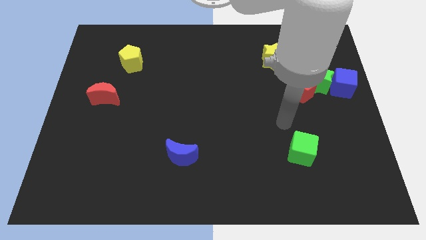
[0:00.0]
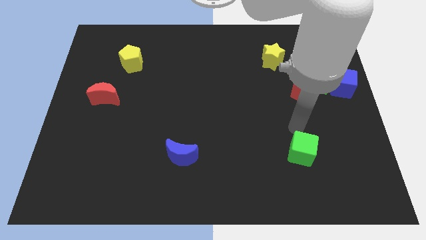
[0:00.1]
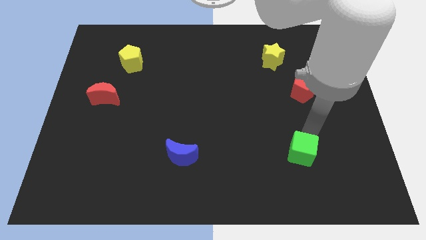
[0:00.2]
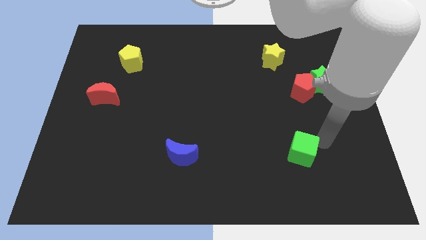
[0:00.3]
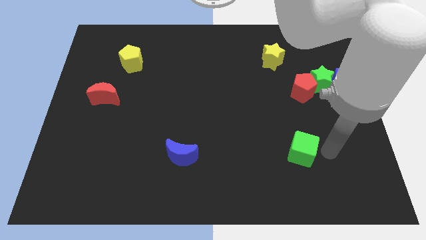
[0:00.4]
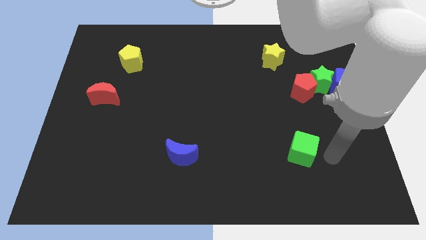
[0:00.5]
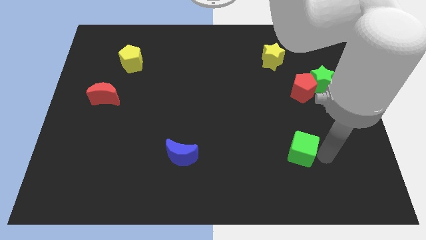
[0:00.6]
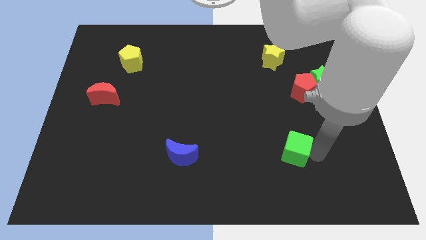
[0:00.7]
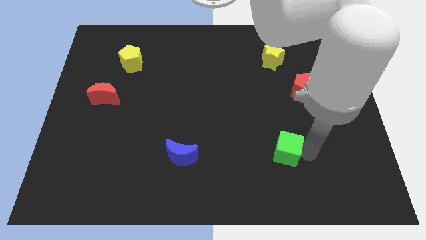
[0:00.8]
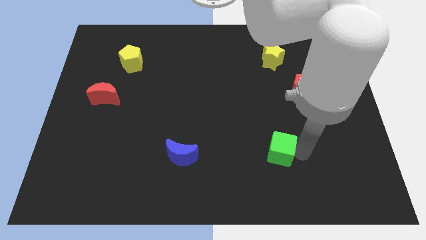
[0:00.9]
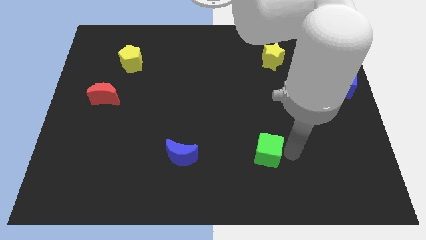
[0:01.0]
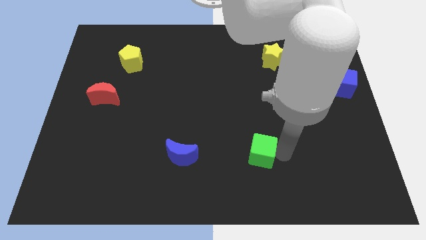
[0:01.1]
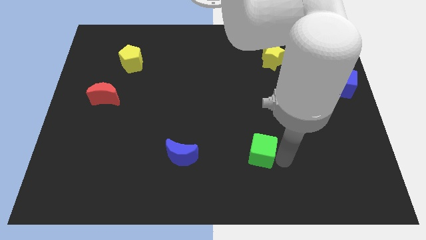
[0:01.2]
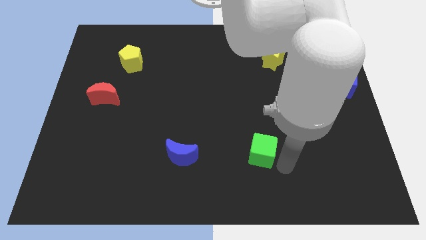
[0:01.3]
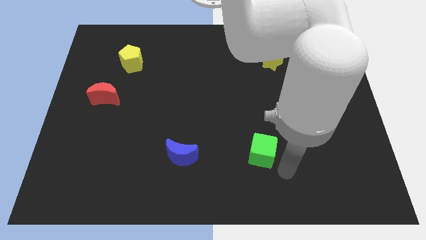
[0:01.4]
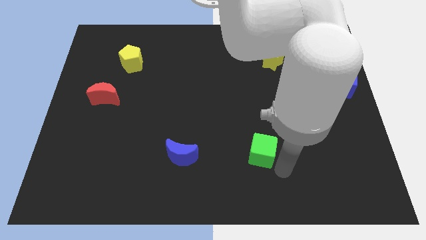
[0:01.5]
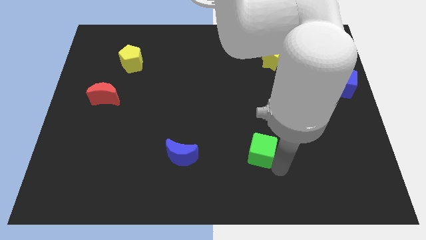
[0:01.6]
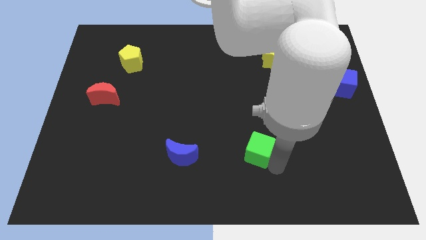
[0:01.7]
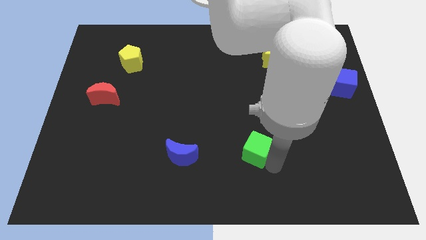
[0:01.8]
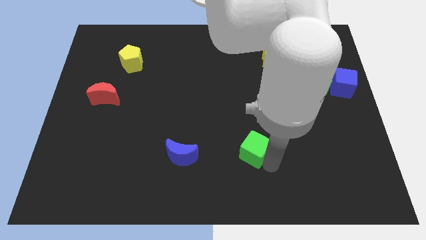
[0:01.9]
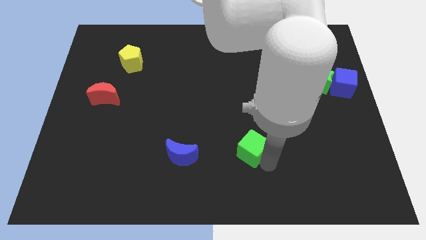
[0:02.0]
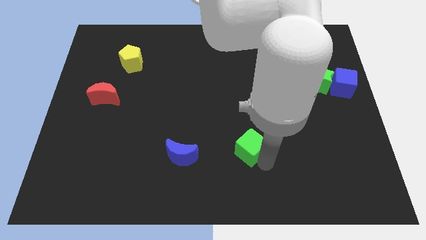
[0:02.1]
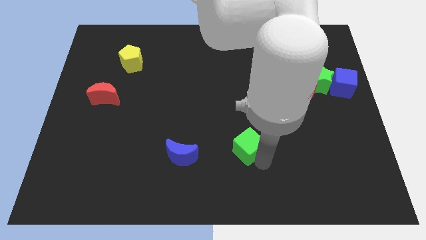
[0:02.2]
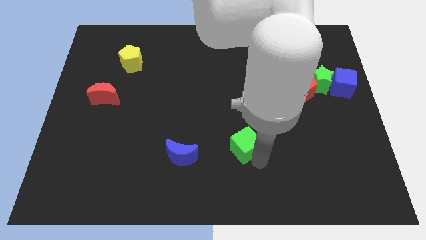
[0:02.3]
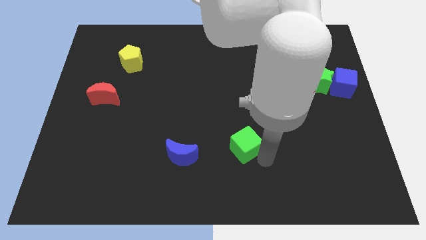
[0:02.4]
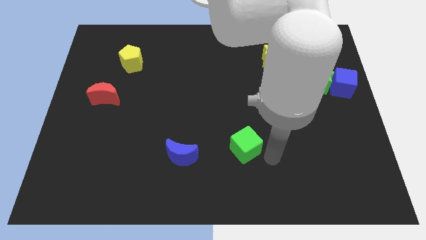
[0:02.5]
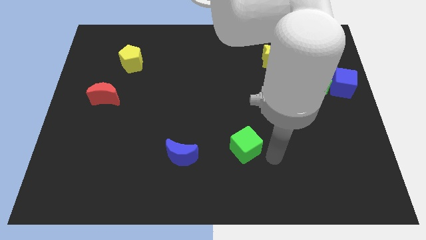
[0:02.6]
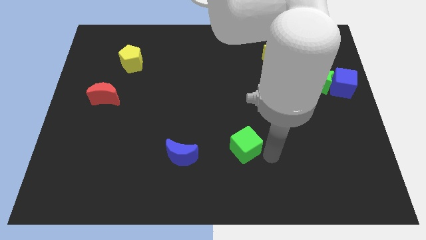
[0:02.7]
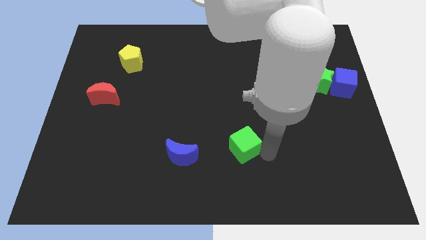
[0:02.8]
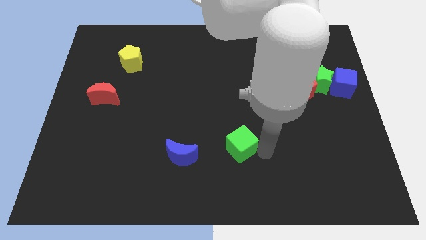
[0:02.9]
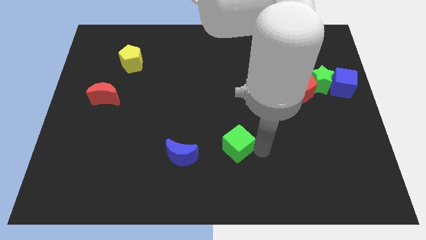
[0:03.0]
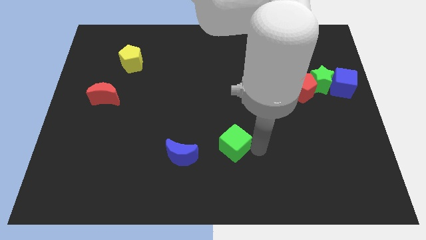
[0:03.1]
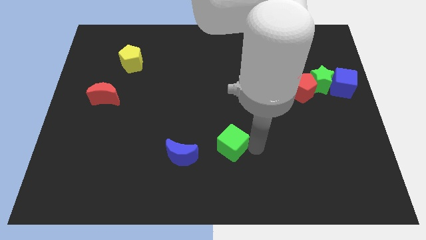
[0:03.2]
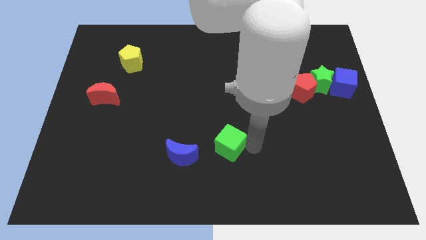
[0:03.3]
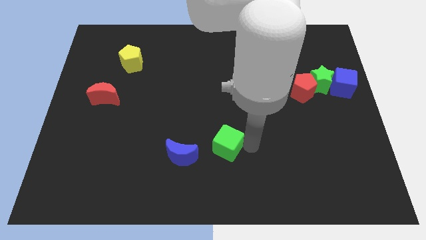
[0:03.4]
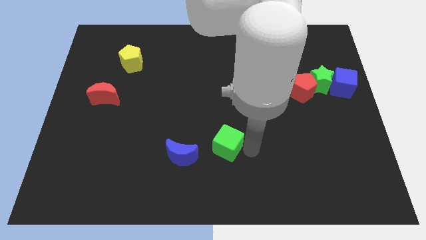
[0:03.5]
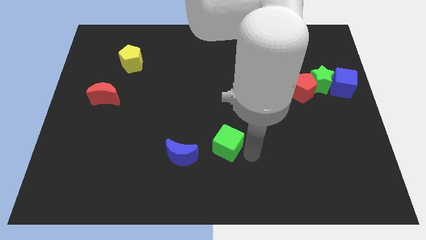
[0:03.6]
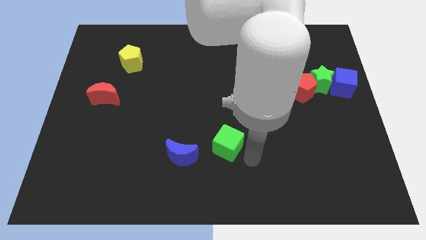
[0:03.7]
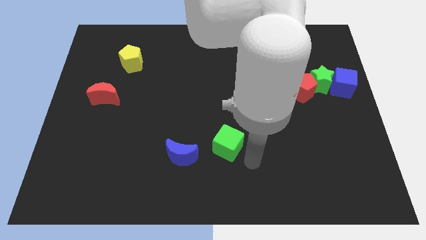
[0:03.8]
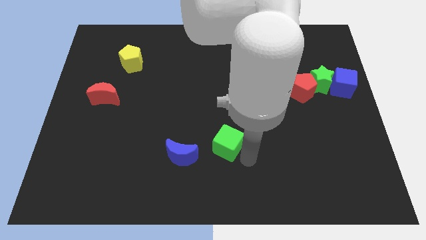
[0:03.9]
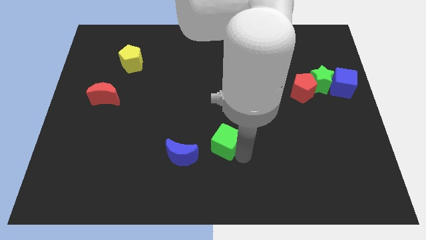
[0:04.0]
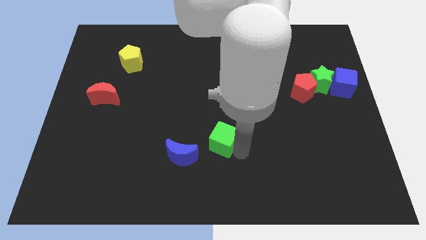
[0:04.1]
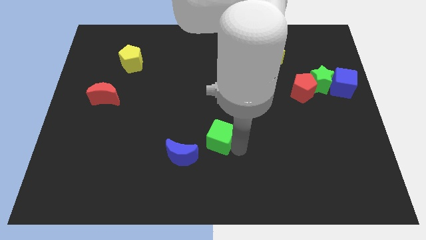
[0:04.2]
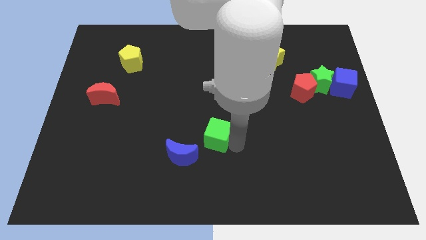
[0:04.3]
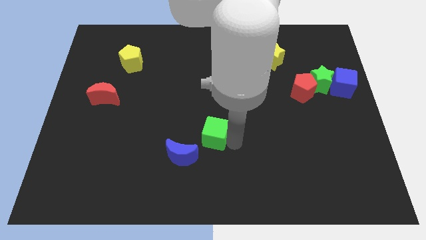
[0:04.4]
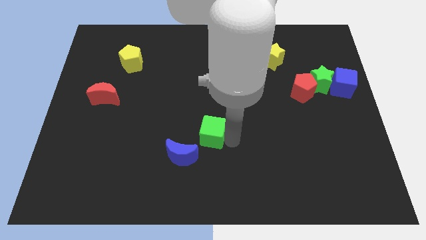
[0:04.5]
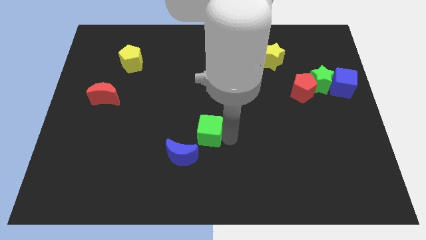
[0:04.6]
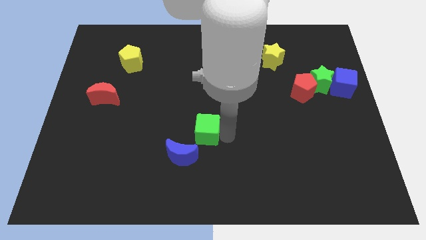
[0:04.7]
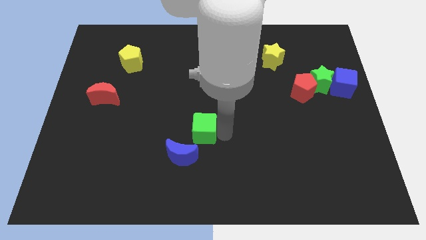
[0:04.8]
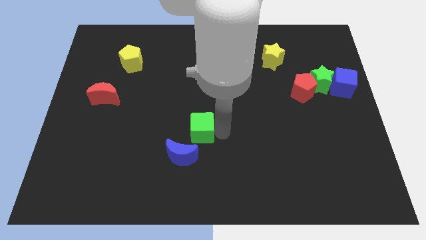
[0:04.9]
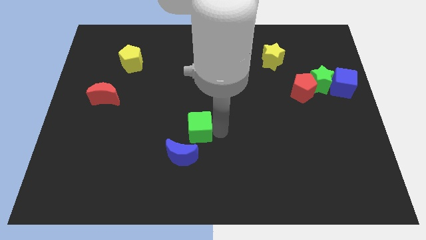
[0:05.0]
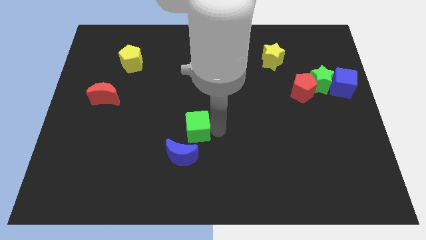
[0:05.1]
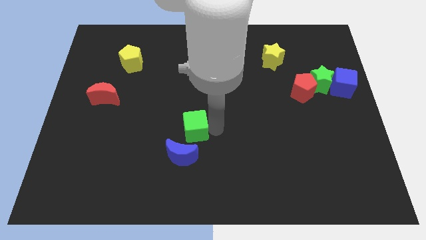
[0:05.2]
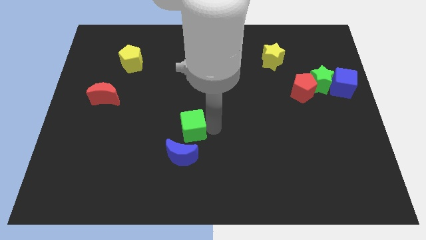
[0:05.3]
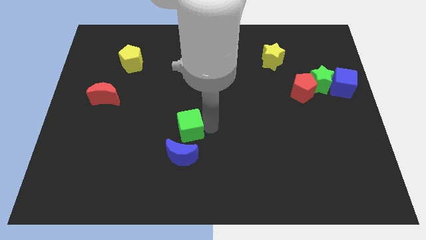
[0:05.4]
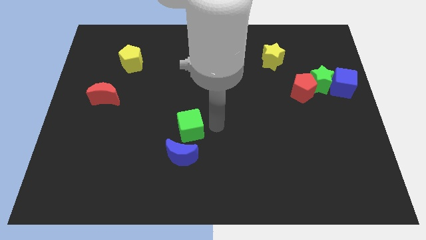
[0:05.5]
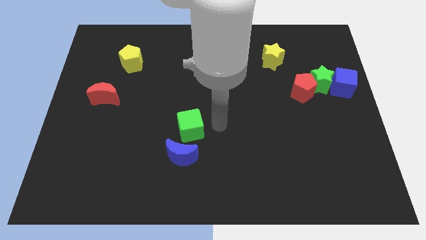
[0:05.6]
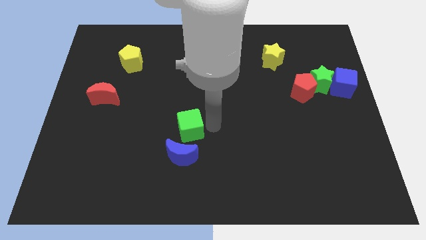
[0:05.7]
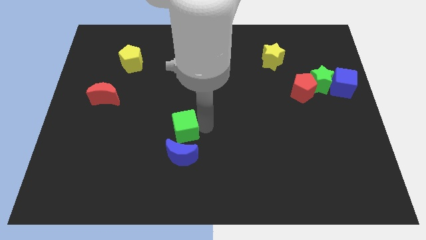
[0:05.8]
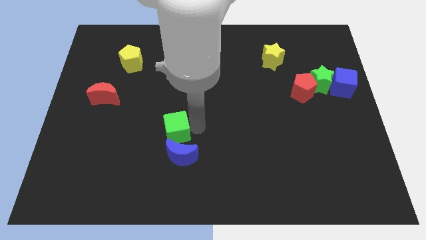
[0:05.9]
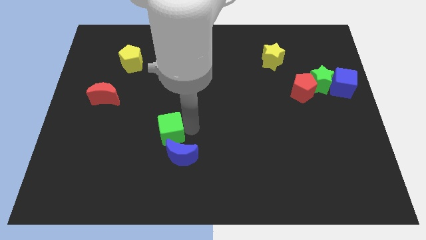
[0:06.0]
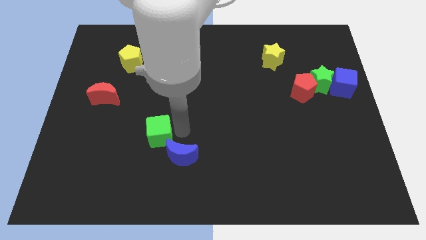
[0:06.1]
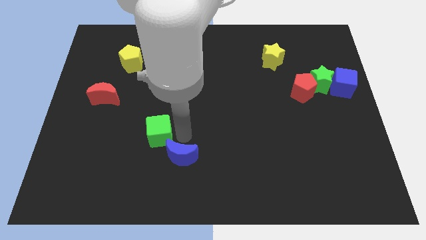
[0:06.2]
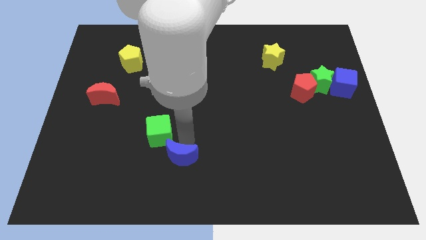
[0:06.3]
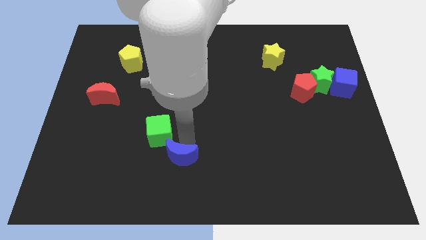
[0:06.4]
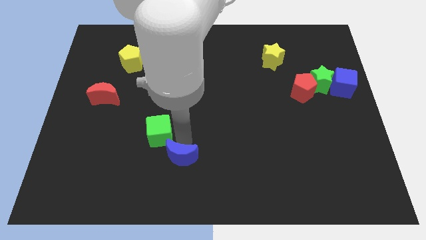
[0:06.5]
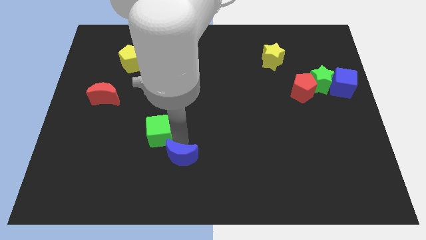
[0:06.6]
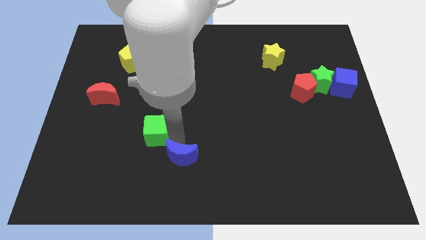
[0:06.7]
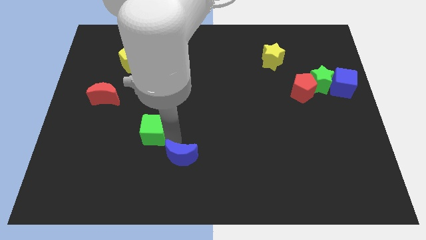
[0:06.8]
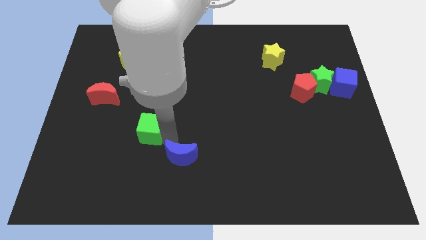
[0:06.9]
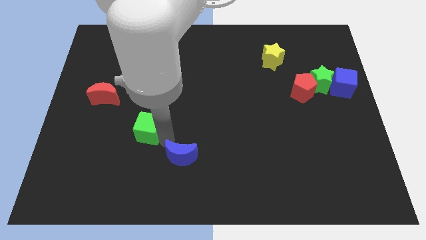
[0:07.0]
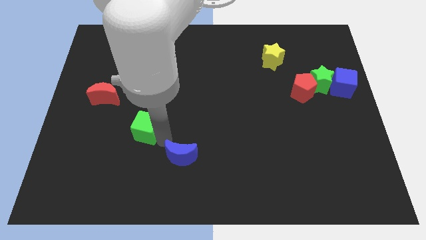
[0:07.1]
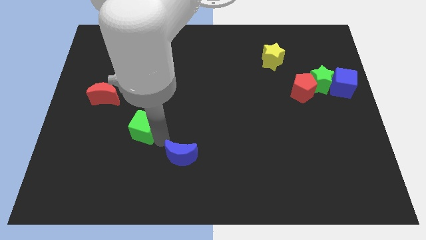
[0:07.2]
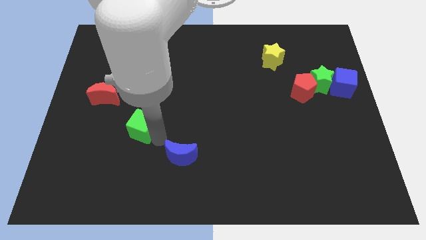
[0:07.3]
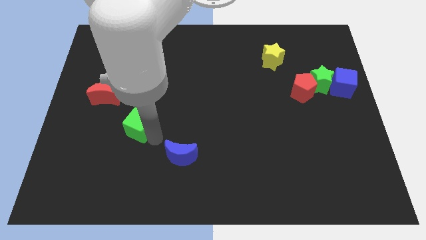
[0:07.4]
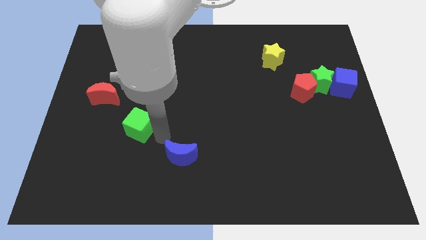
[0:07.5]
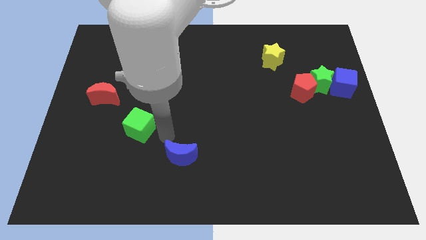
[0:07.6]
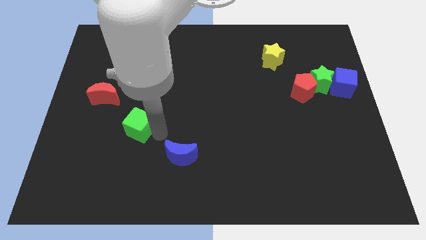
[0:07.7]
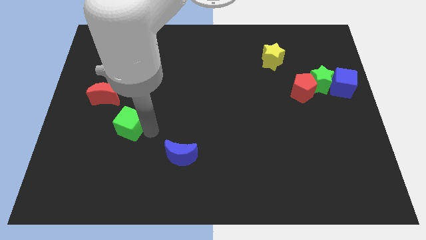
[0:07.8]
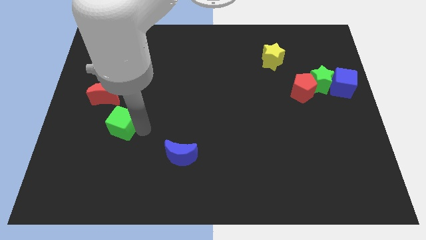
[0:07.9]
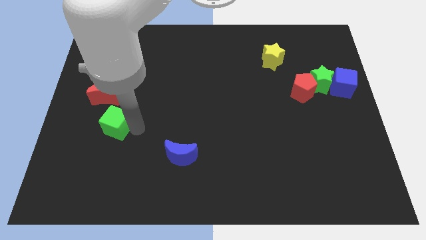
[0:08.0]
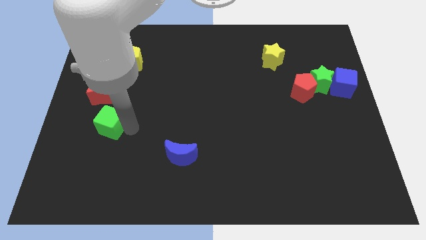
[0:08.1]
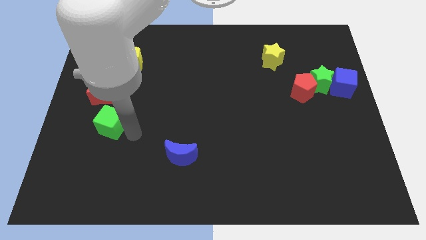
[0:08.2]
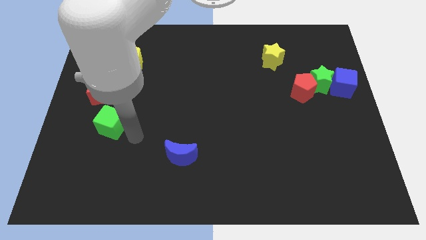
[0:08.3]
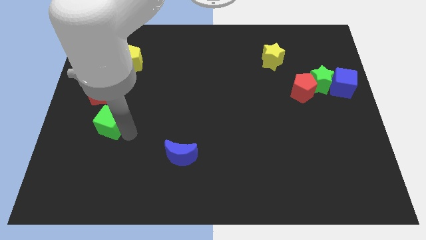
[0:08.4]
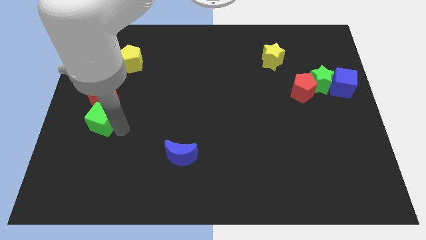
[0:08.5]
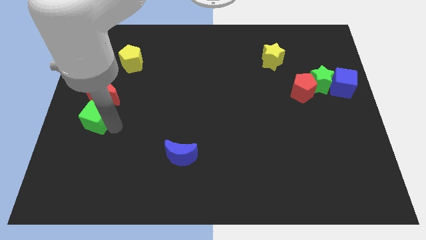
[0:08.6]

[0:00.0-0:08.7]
slide the green cube to the center left
